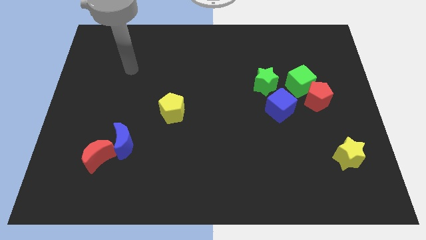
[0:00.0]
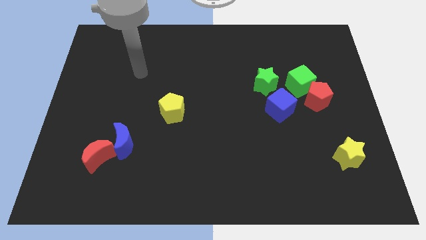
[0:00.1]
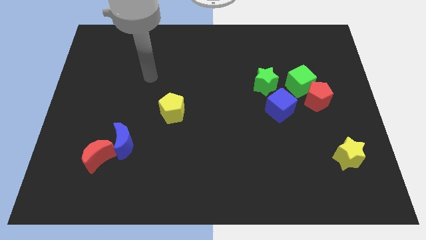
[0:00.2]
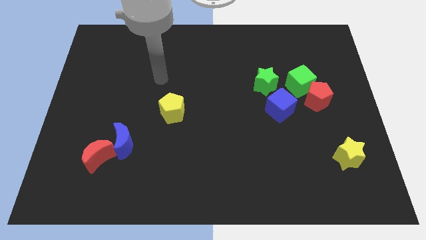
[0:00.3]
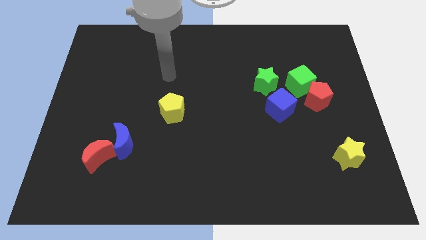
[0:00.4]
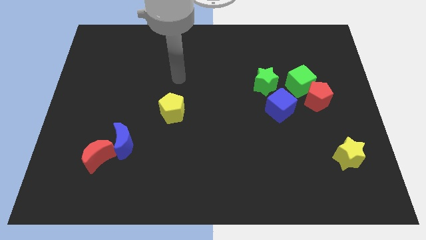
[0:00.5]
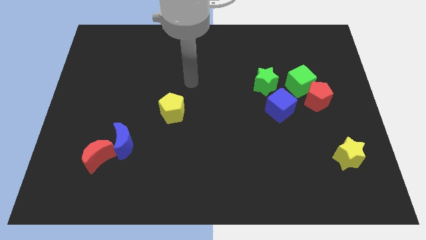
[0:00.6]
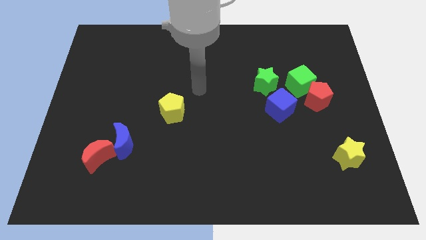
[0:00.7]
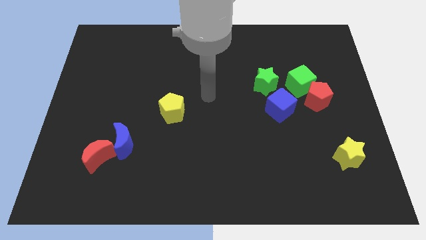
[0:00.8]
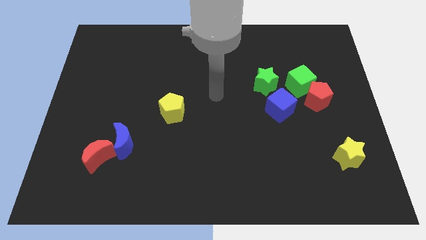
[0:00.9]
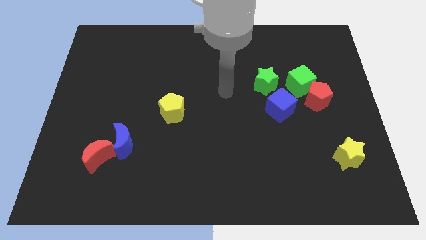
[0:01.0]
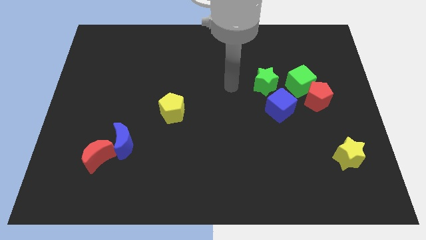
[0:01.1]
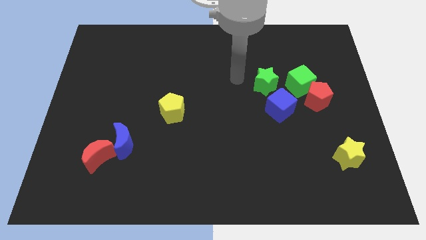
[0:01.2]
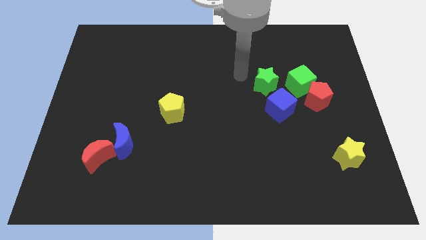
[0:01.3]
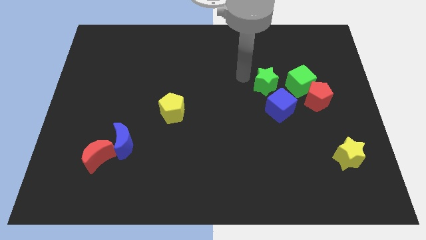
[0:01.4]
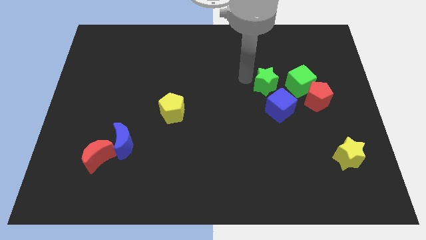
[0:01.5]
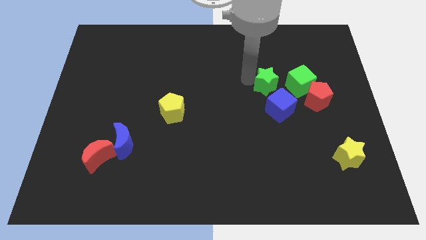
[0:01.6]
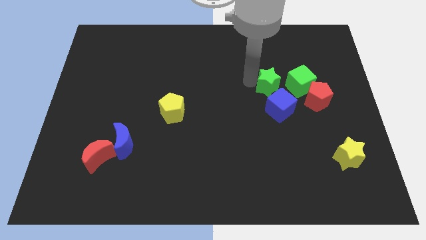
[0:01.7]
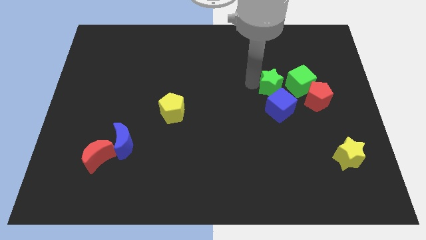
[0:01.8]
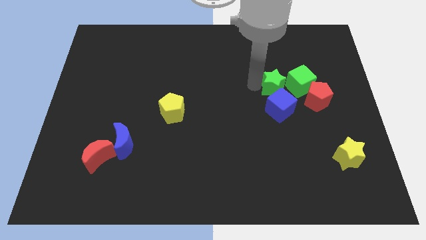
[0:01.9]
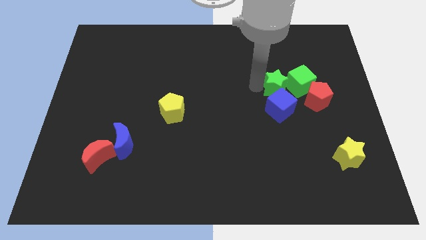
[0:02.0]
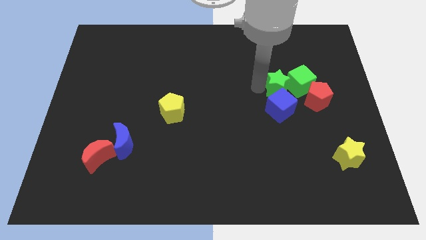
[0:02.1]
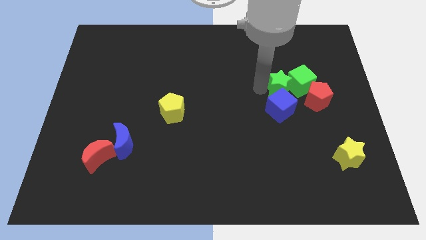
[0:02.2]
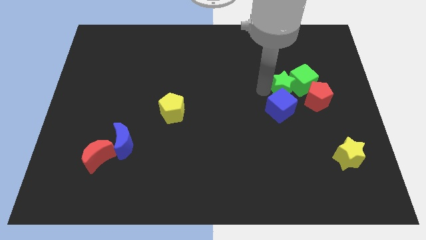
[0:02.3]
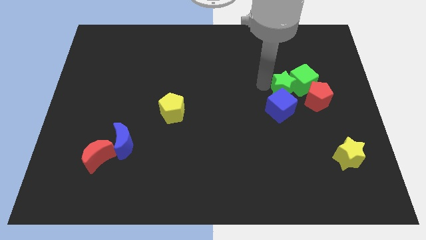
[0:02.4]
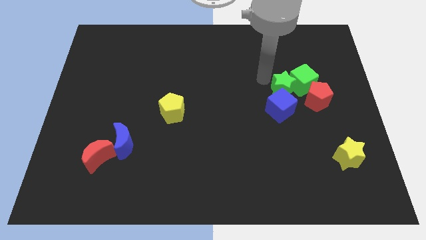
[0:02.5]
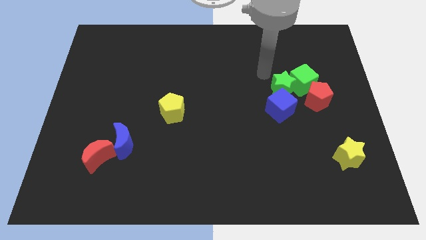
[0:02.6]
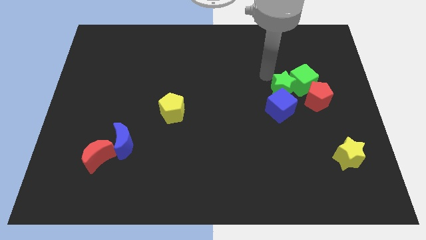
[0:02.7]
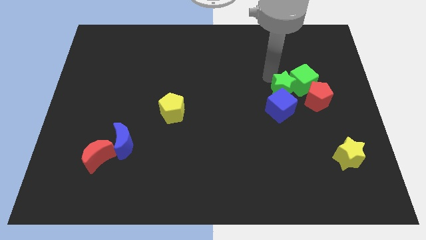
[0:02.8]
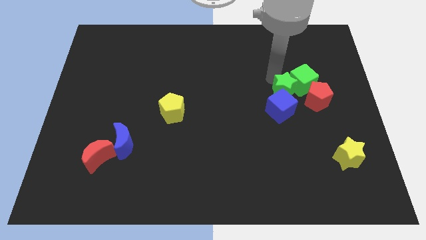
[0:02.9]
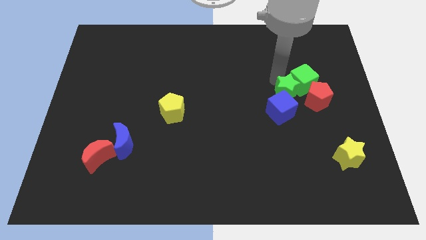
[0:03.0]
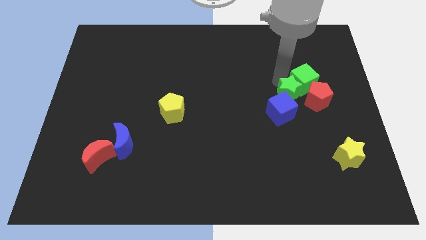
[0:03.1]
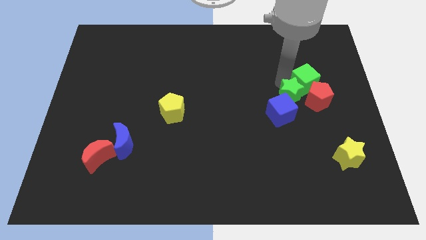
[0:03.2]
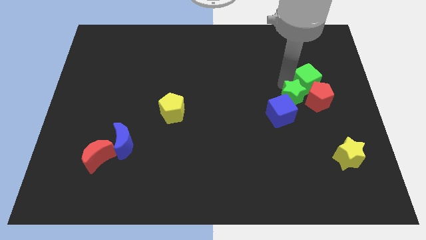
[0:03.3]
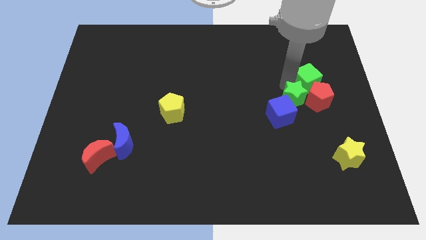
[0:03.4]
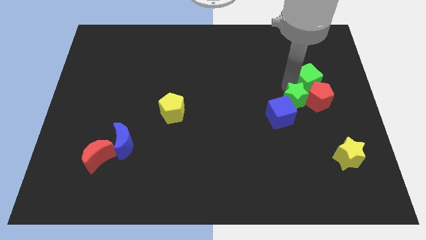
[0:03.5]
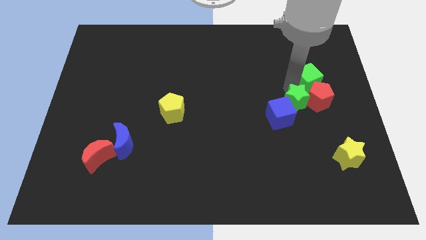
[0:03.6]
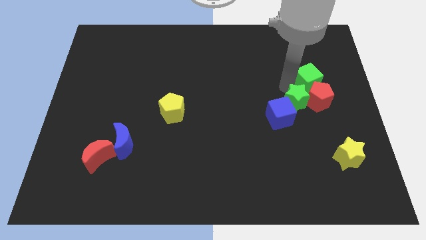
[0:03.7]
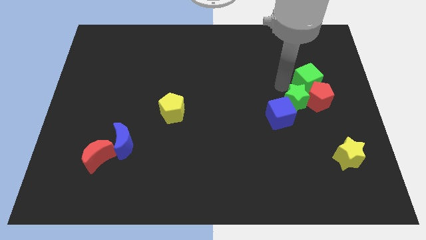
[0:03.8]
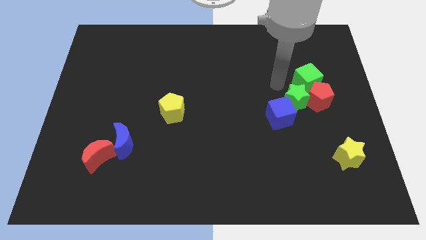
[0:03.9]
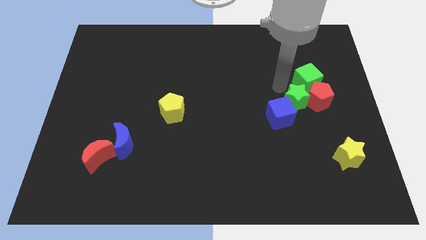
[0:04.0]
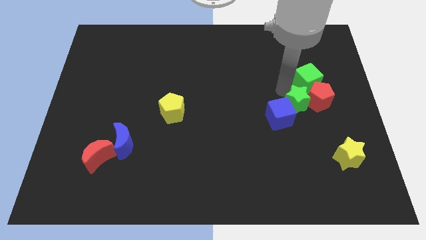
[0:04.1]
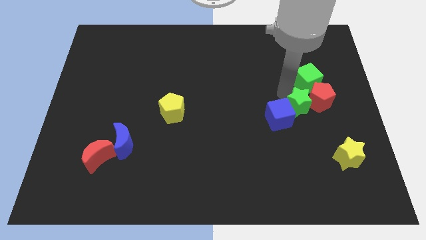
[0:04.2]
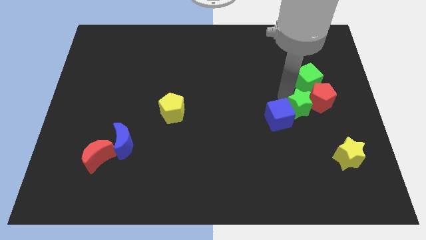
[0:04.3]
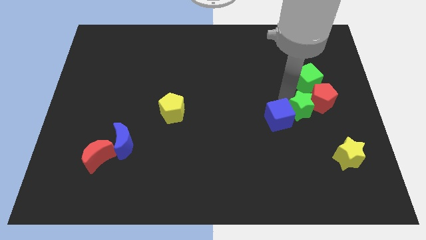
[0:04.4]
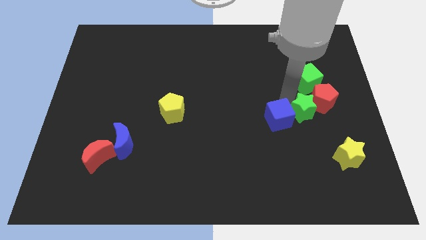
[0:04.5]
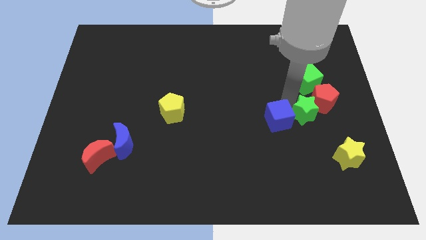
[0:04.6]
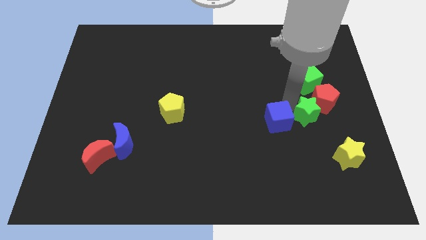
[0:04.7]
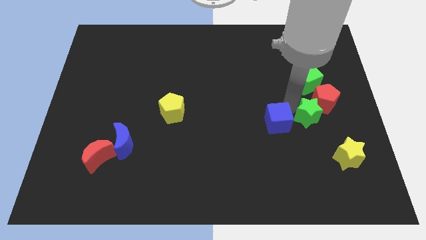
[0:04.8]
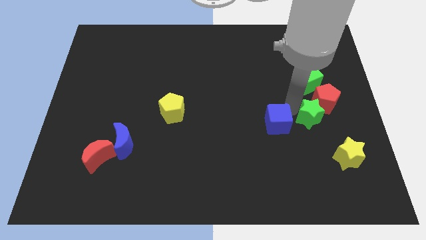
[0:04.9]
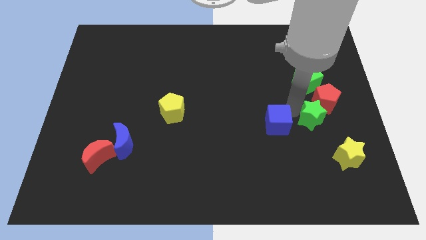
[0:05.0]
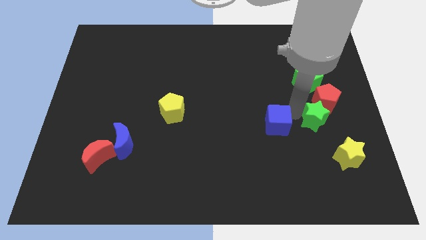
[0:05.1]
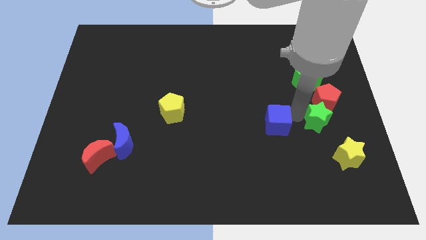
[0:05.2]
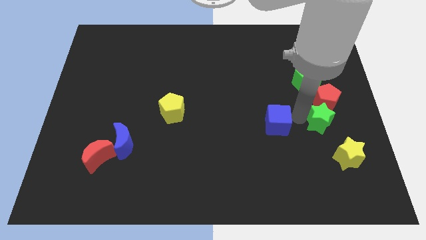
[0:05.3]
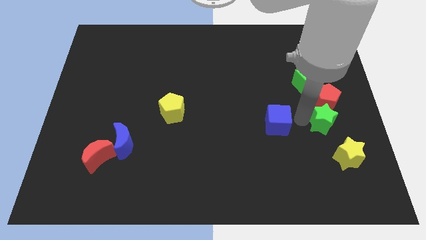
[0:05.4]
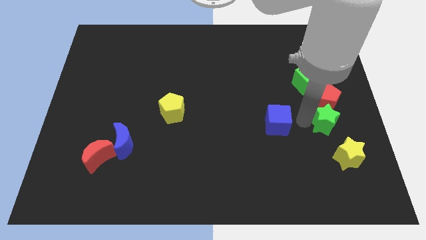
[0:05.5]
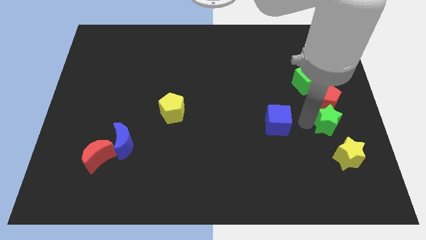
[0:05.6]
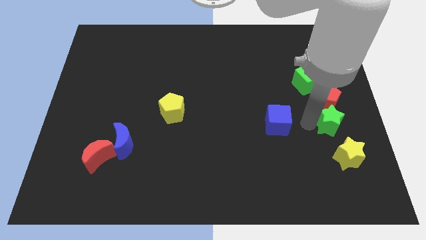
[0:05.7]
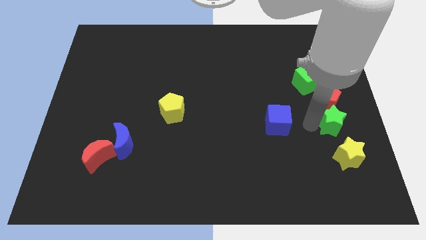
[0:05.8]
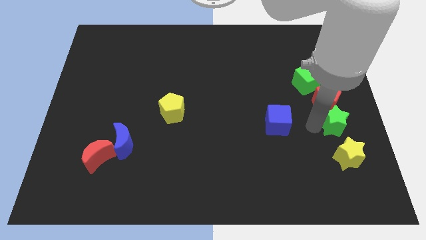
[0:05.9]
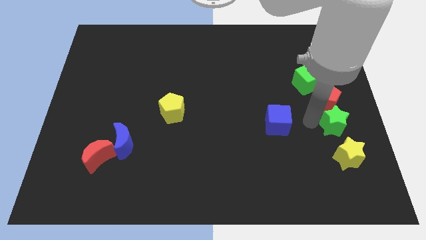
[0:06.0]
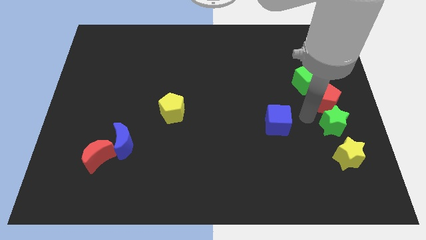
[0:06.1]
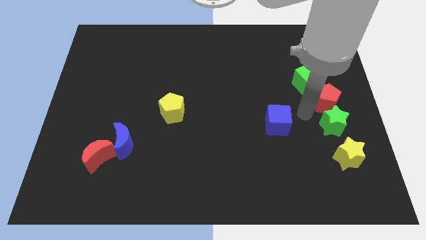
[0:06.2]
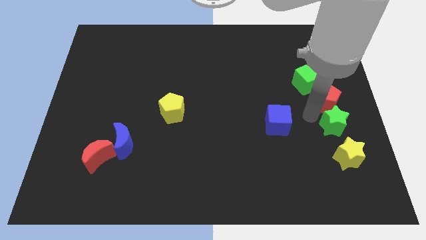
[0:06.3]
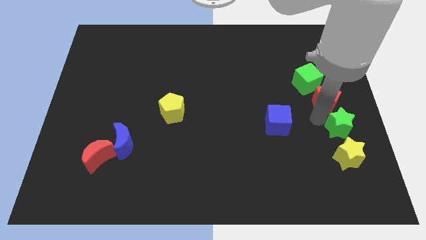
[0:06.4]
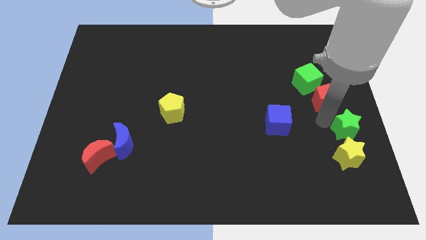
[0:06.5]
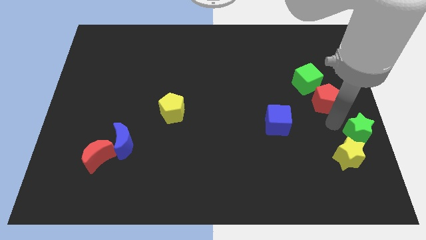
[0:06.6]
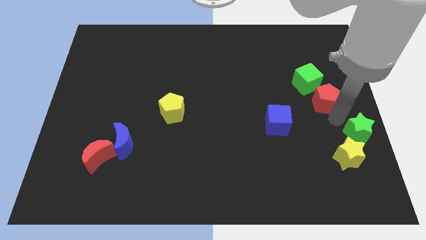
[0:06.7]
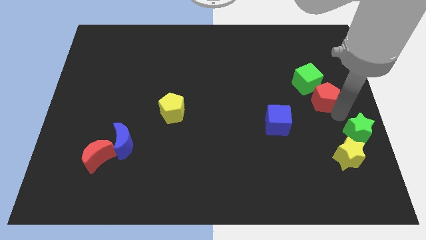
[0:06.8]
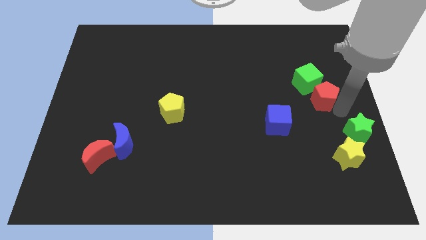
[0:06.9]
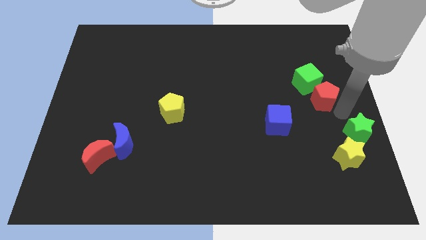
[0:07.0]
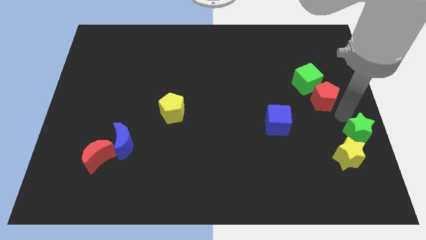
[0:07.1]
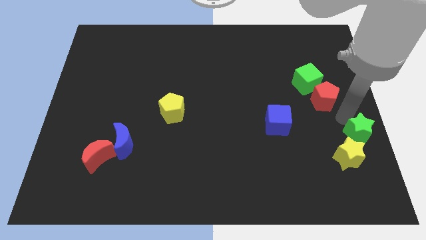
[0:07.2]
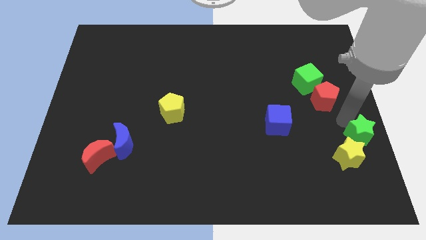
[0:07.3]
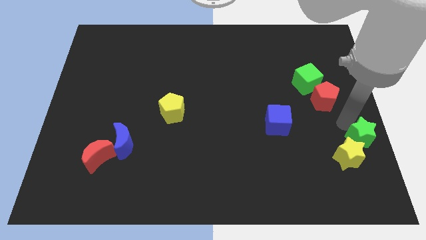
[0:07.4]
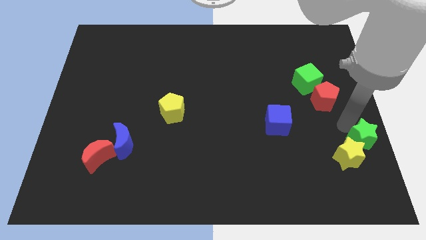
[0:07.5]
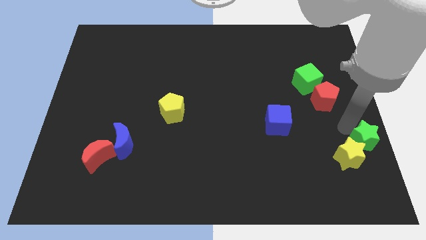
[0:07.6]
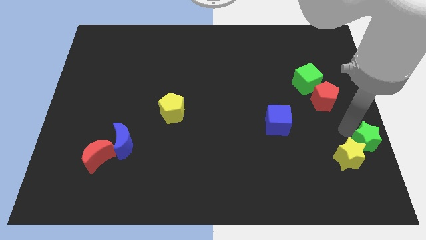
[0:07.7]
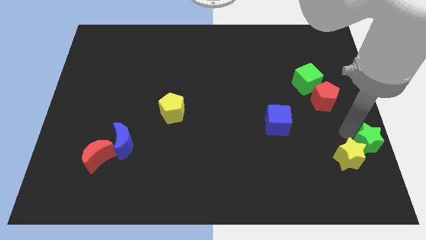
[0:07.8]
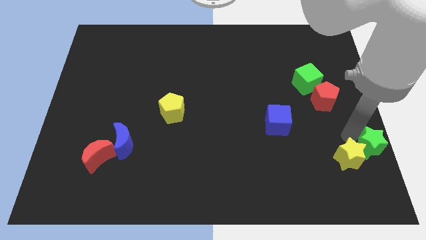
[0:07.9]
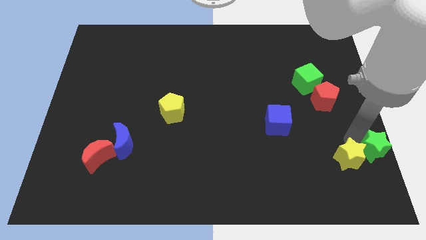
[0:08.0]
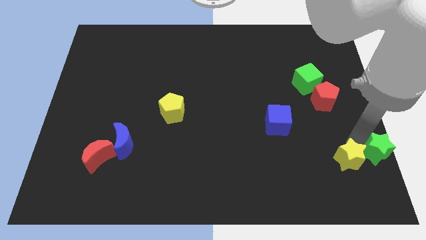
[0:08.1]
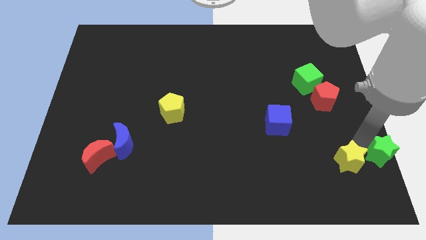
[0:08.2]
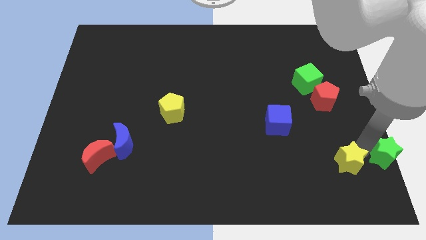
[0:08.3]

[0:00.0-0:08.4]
push the green star to the bottom right corner
